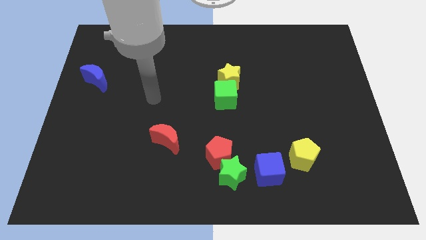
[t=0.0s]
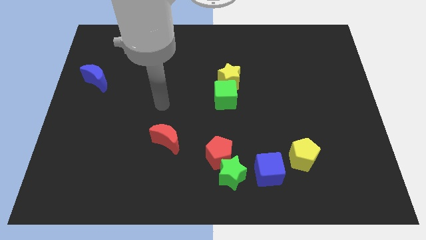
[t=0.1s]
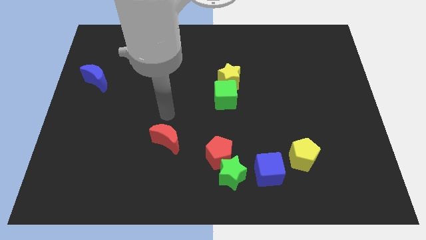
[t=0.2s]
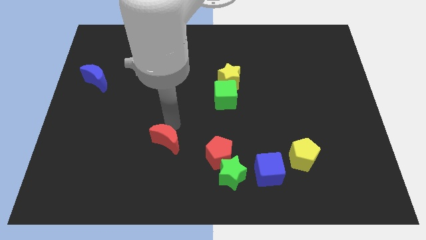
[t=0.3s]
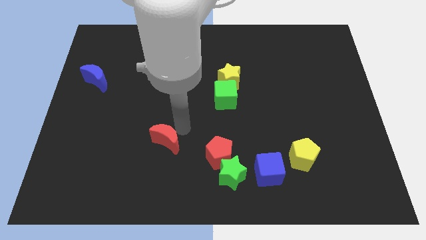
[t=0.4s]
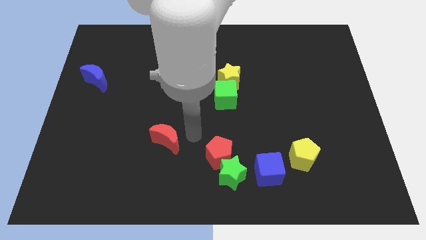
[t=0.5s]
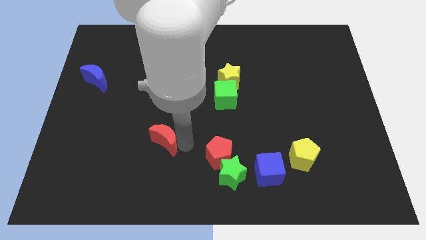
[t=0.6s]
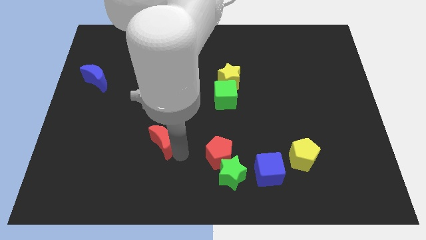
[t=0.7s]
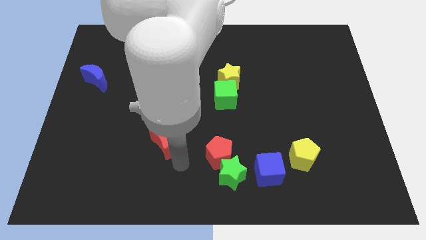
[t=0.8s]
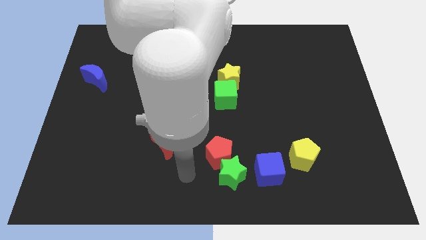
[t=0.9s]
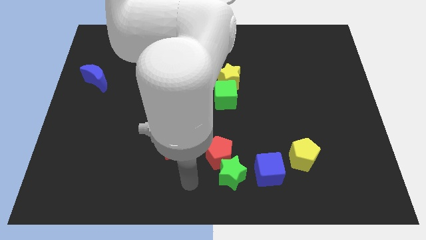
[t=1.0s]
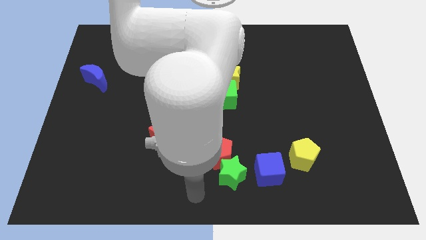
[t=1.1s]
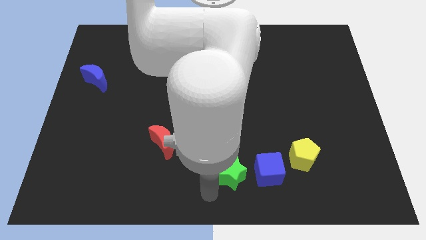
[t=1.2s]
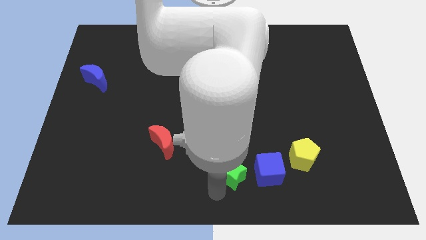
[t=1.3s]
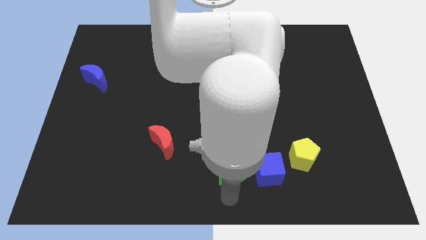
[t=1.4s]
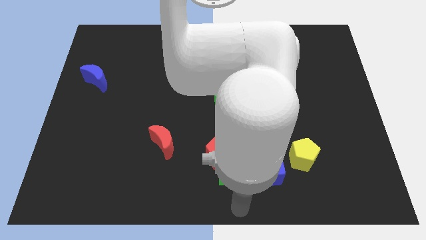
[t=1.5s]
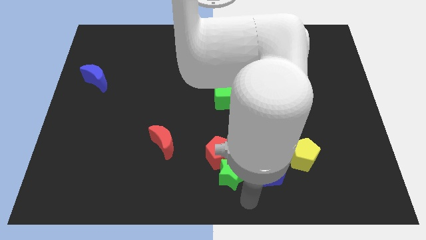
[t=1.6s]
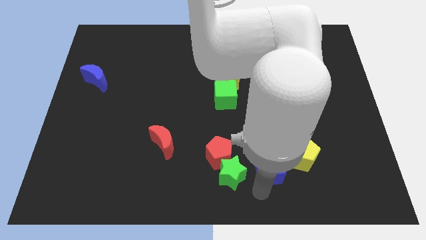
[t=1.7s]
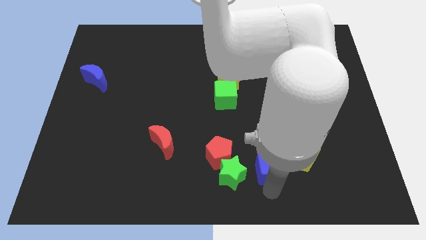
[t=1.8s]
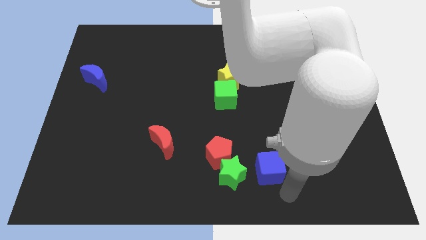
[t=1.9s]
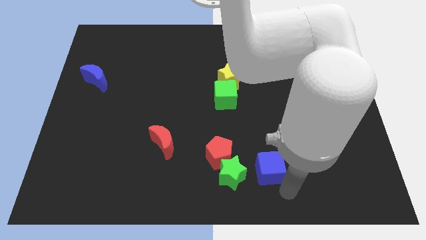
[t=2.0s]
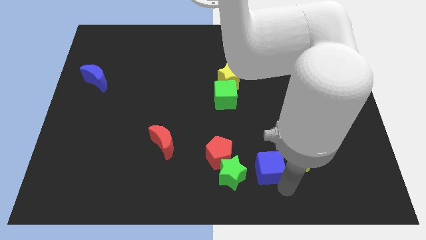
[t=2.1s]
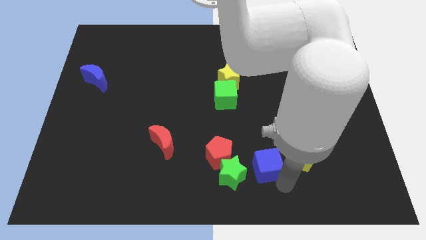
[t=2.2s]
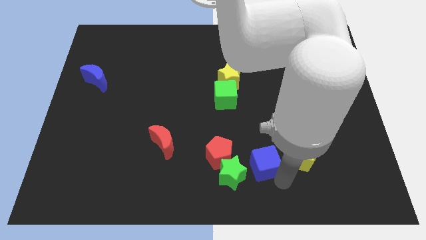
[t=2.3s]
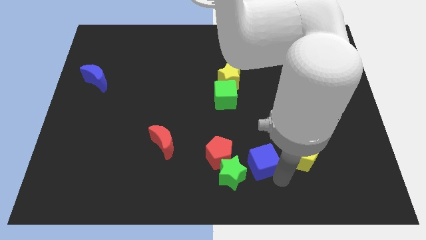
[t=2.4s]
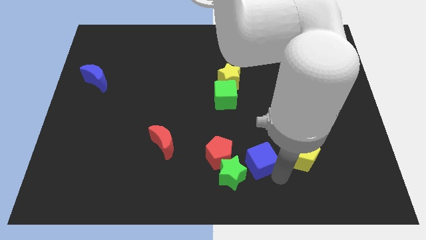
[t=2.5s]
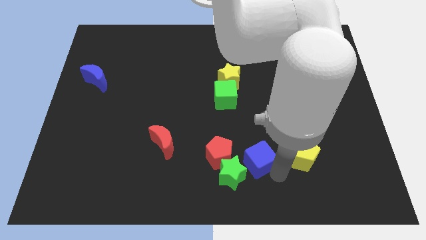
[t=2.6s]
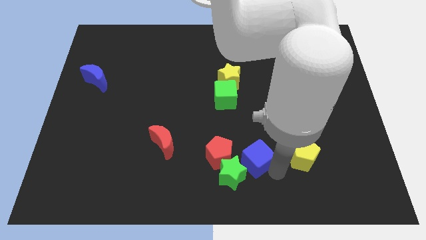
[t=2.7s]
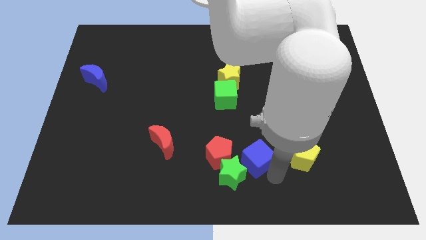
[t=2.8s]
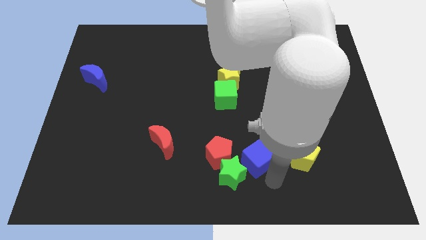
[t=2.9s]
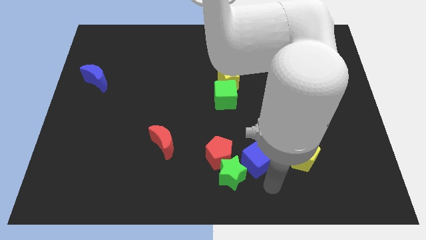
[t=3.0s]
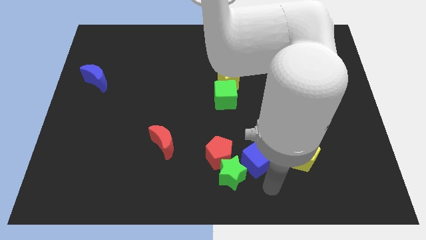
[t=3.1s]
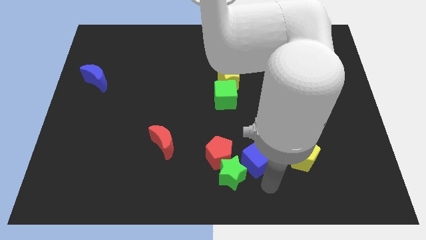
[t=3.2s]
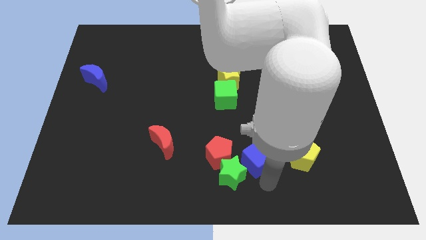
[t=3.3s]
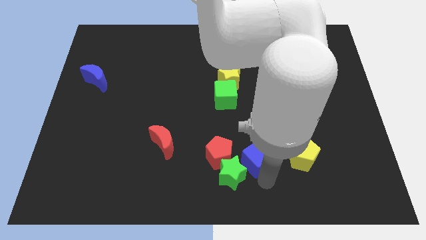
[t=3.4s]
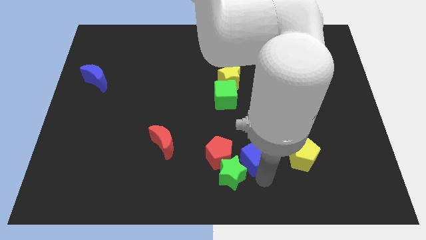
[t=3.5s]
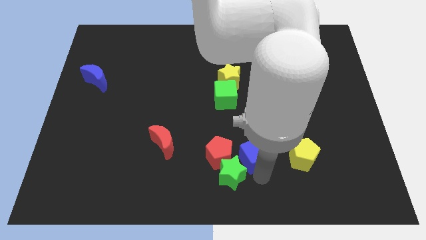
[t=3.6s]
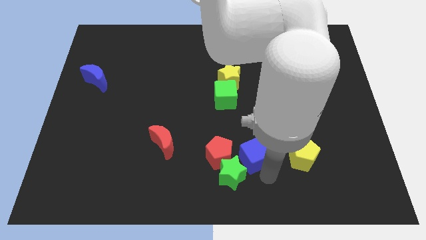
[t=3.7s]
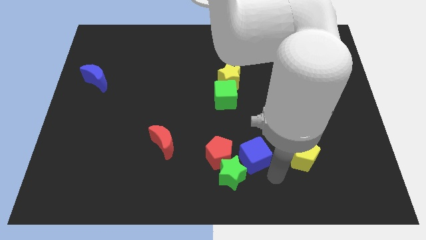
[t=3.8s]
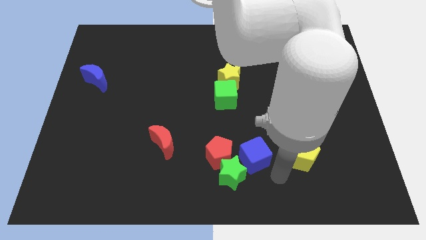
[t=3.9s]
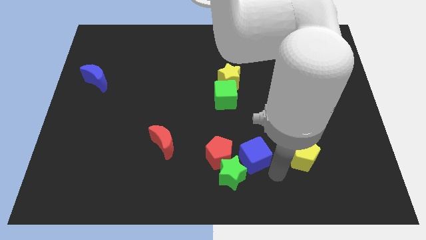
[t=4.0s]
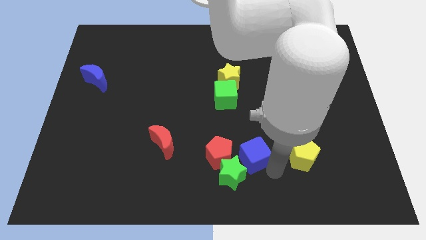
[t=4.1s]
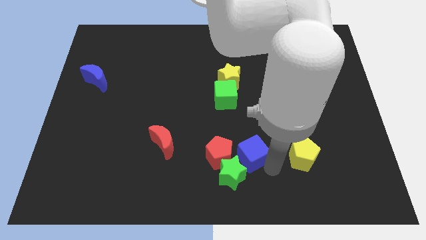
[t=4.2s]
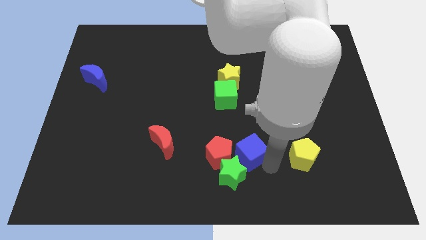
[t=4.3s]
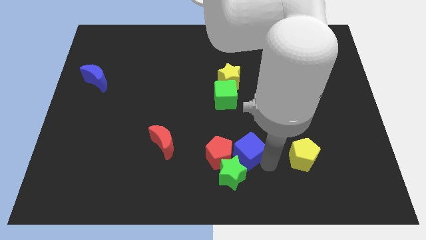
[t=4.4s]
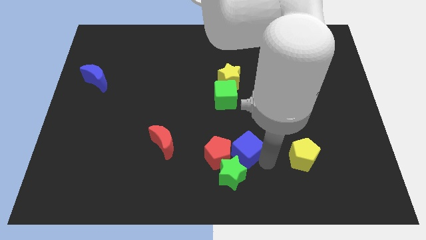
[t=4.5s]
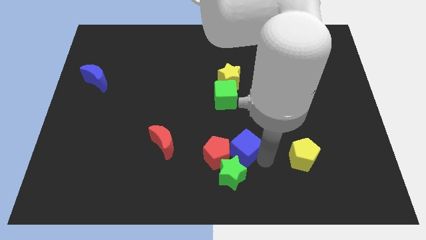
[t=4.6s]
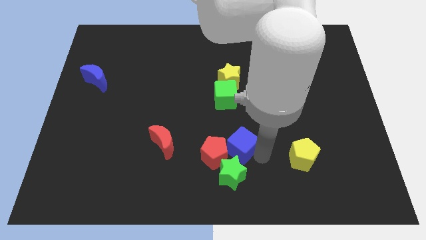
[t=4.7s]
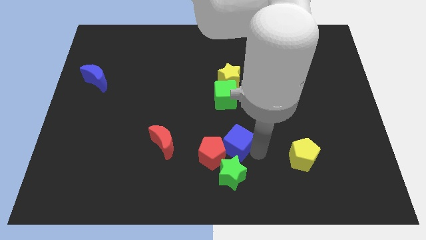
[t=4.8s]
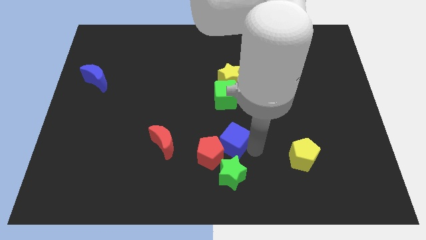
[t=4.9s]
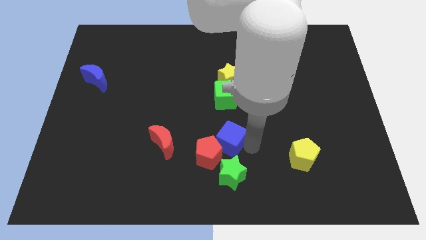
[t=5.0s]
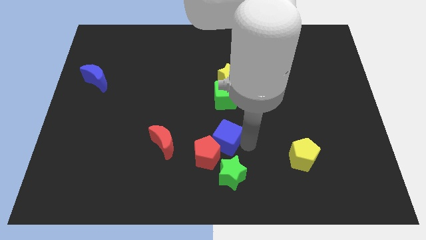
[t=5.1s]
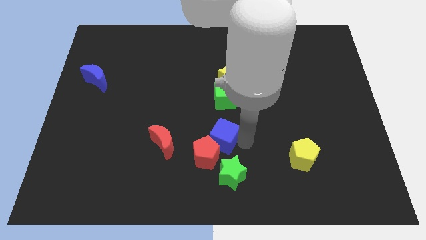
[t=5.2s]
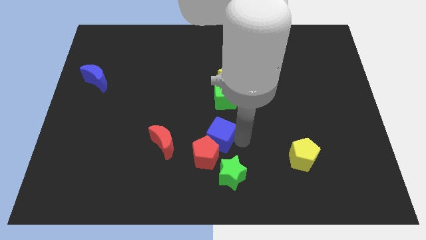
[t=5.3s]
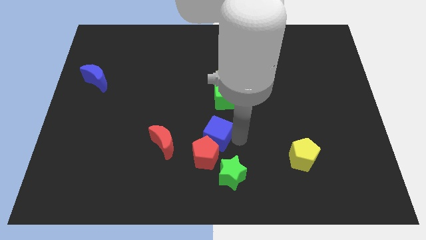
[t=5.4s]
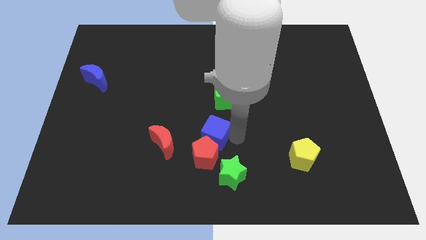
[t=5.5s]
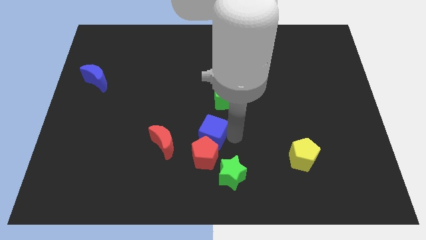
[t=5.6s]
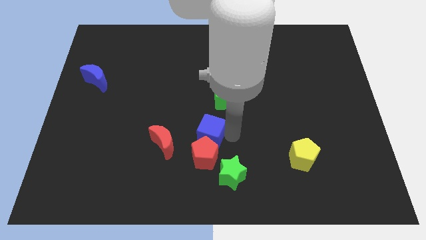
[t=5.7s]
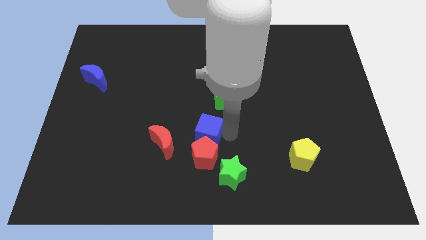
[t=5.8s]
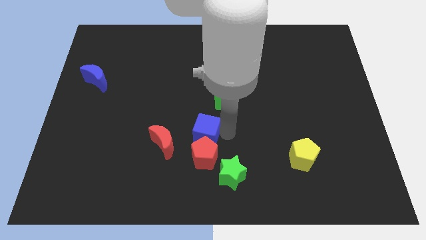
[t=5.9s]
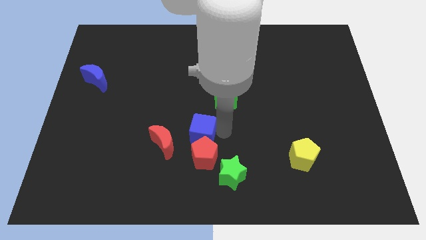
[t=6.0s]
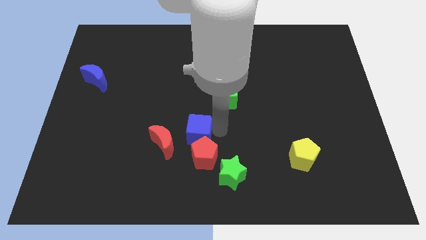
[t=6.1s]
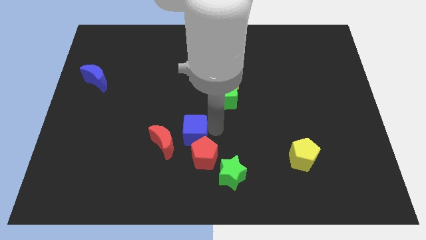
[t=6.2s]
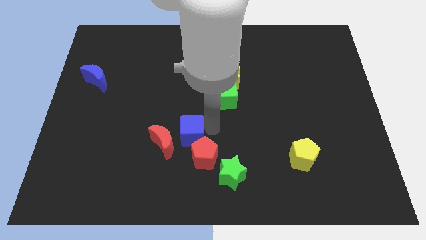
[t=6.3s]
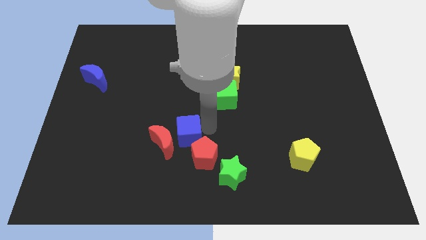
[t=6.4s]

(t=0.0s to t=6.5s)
slide the blue cube close to the red moon

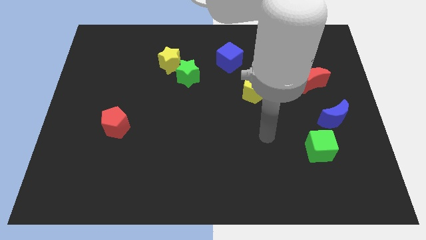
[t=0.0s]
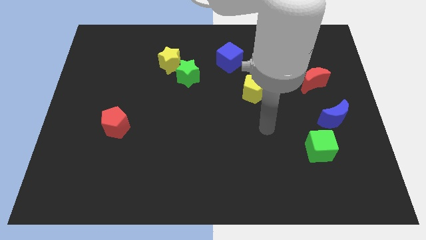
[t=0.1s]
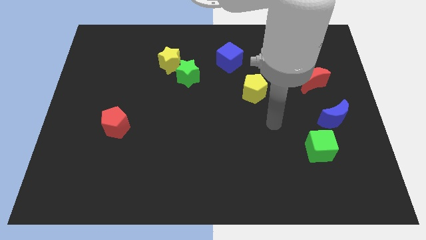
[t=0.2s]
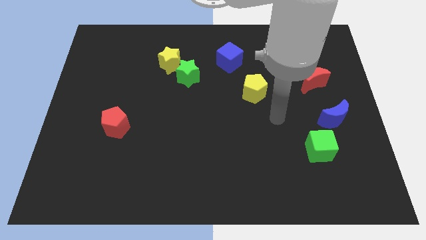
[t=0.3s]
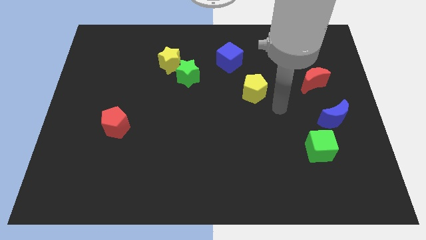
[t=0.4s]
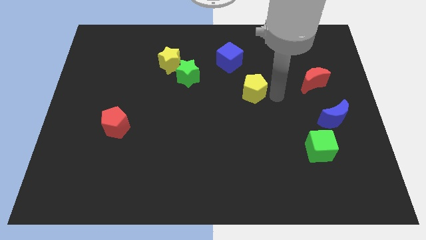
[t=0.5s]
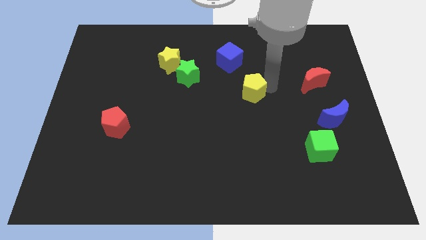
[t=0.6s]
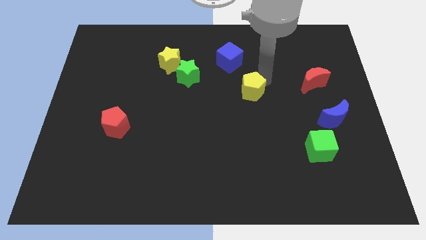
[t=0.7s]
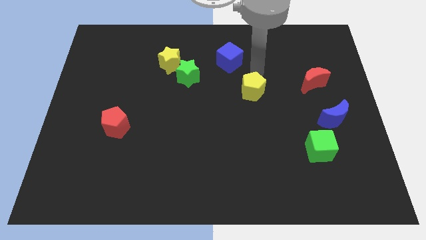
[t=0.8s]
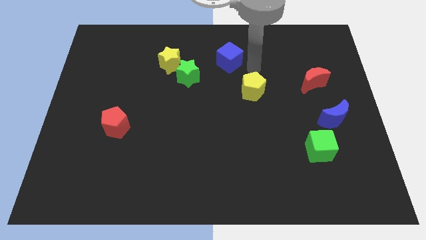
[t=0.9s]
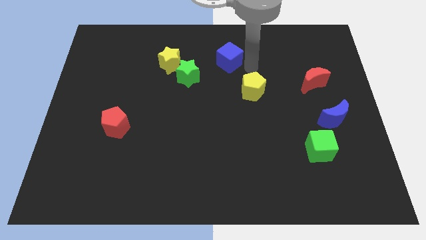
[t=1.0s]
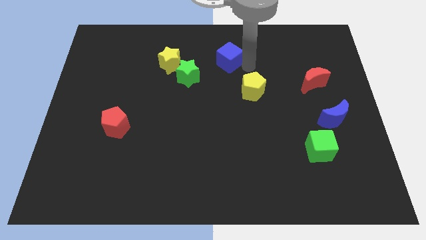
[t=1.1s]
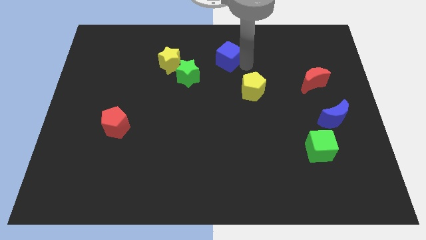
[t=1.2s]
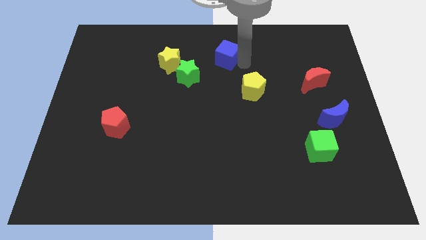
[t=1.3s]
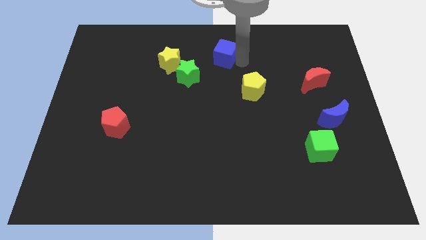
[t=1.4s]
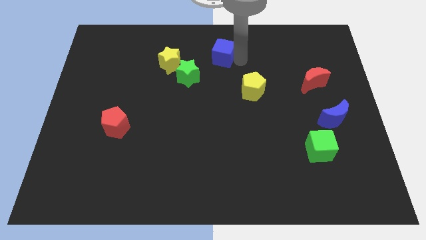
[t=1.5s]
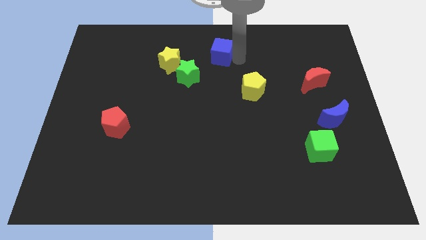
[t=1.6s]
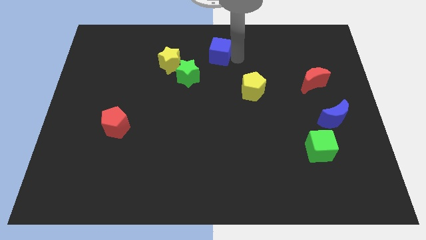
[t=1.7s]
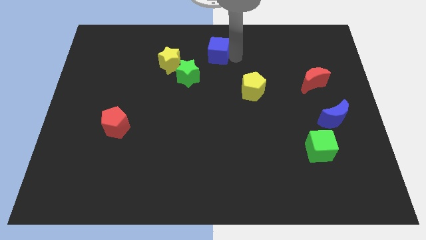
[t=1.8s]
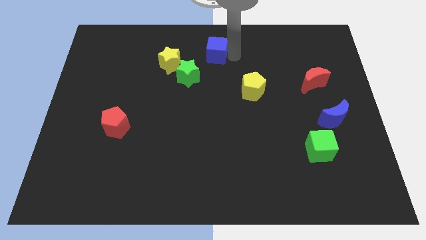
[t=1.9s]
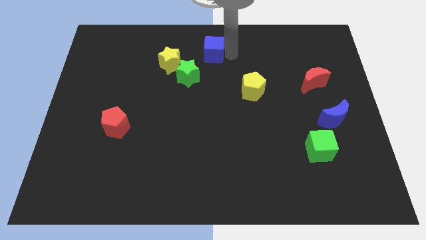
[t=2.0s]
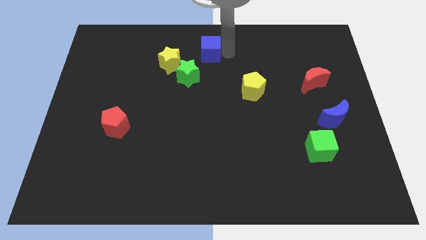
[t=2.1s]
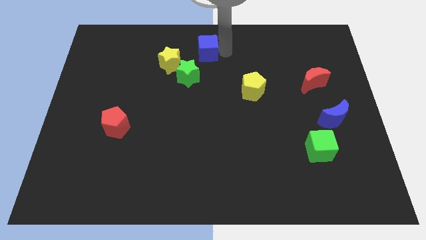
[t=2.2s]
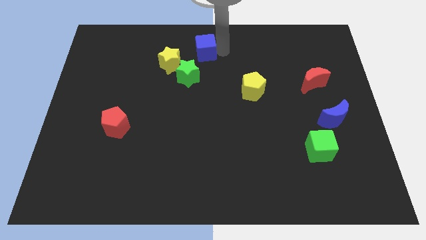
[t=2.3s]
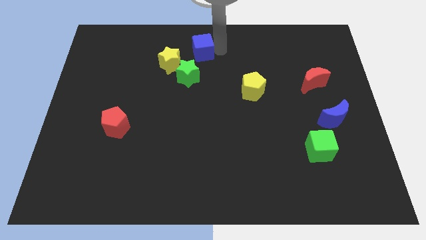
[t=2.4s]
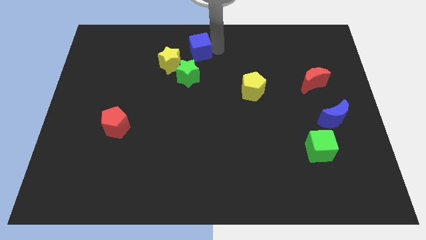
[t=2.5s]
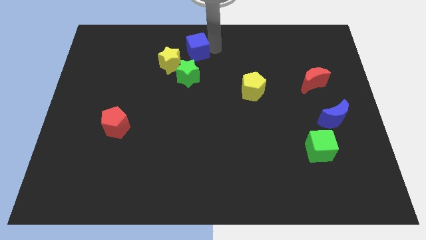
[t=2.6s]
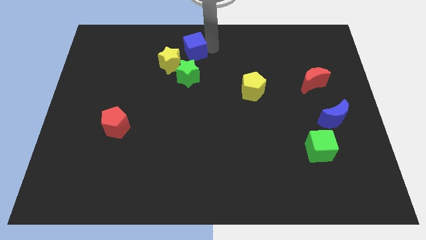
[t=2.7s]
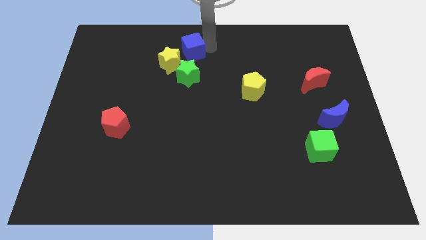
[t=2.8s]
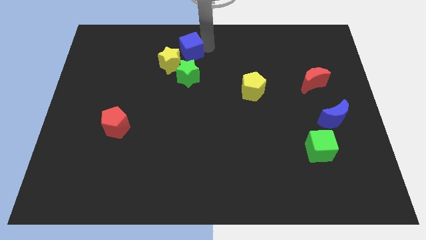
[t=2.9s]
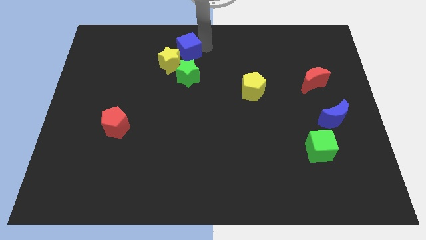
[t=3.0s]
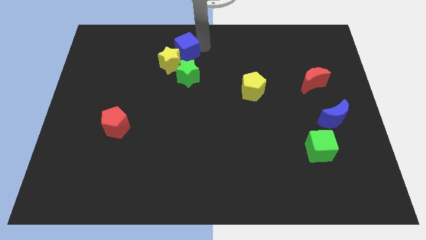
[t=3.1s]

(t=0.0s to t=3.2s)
move the blue cube next to the yellow star
